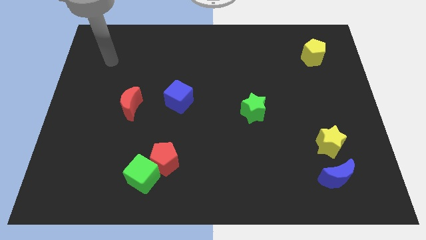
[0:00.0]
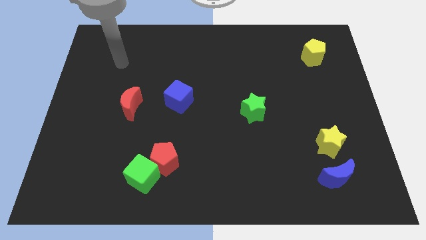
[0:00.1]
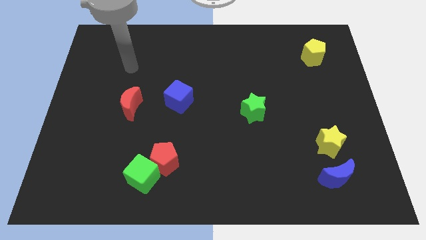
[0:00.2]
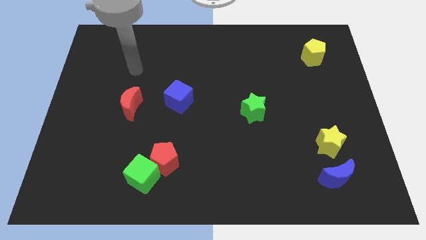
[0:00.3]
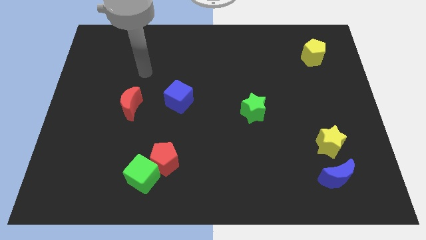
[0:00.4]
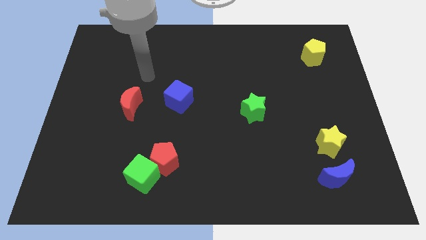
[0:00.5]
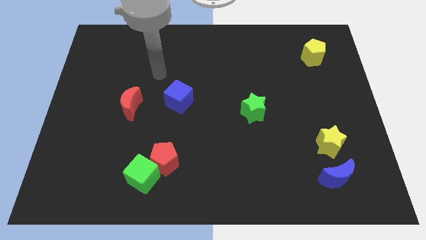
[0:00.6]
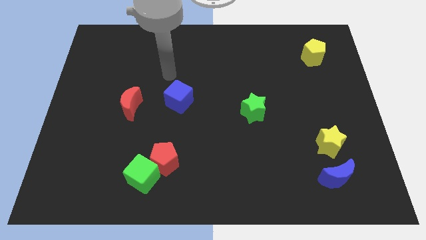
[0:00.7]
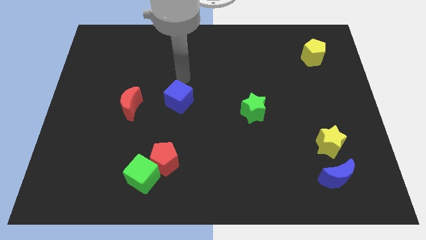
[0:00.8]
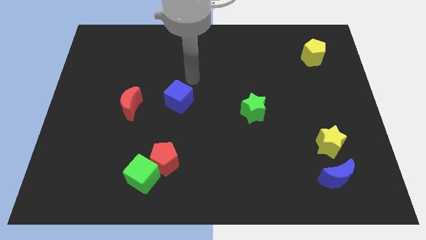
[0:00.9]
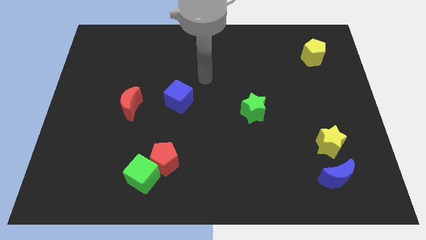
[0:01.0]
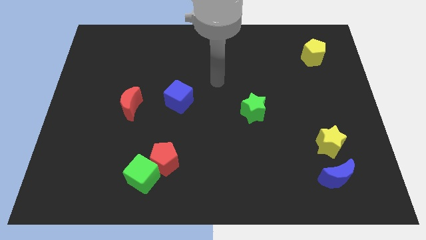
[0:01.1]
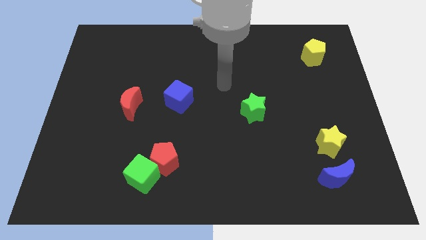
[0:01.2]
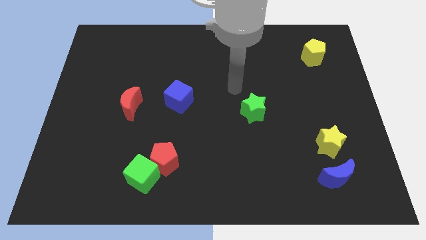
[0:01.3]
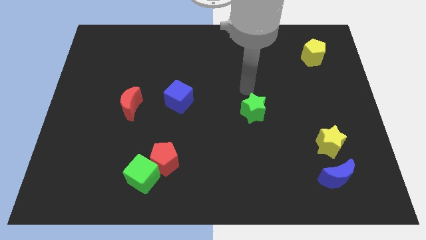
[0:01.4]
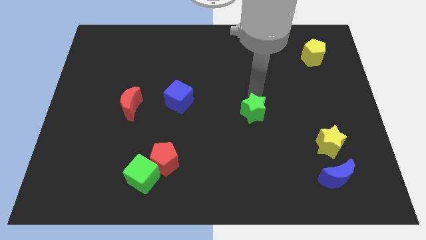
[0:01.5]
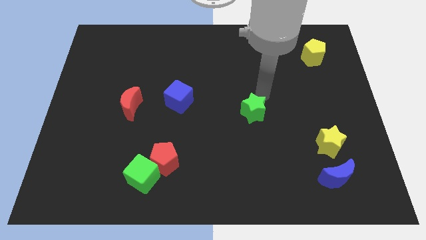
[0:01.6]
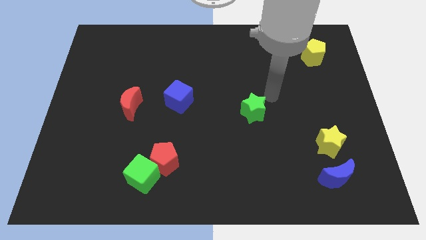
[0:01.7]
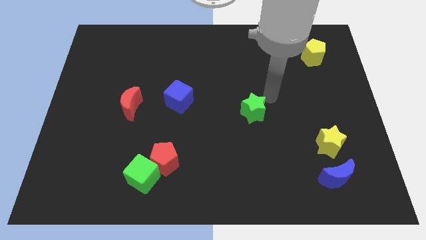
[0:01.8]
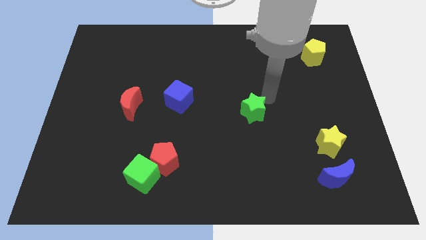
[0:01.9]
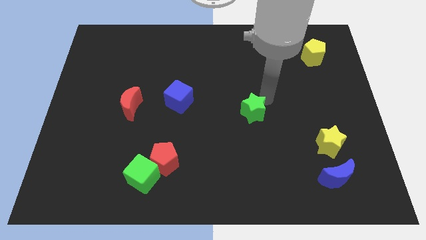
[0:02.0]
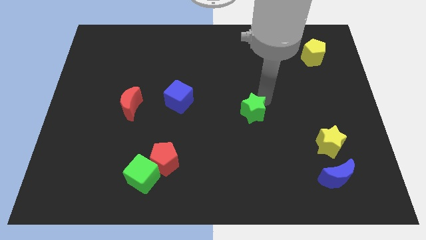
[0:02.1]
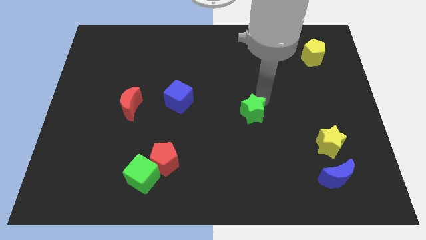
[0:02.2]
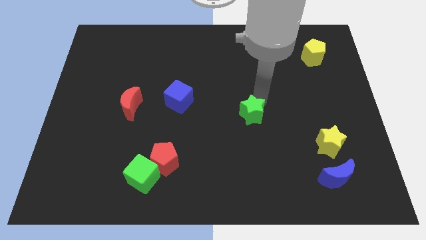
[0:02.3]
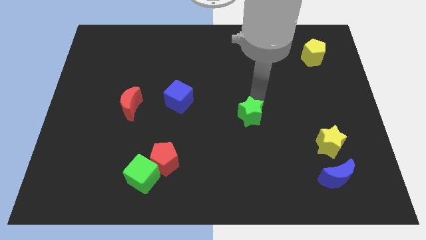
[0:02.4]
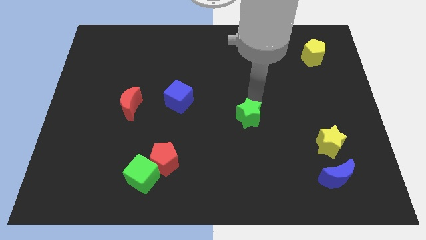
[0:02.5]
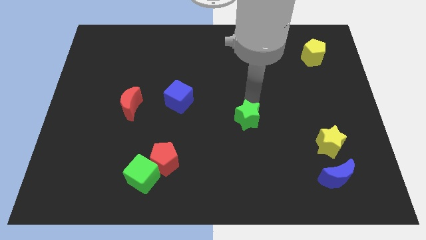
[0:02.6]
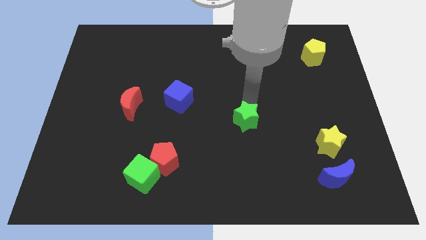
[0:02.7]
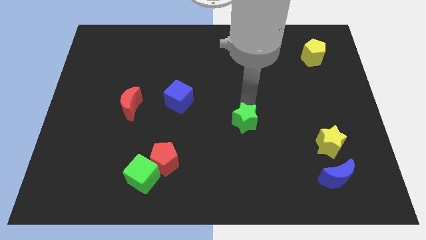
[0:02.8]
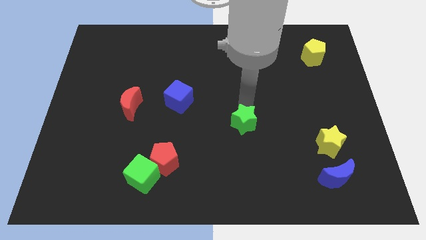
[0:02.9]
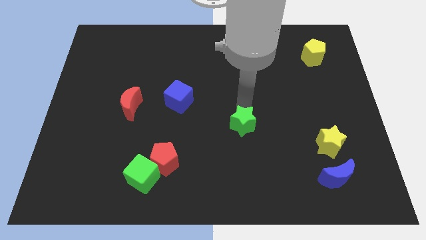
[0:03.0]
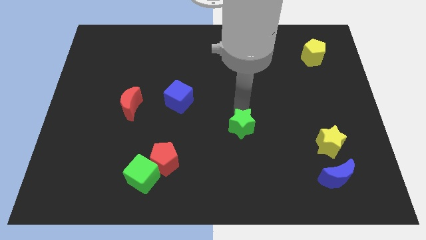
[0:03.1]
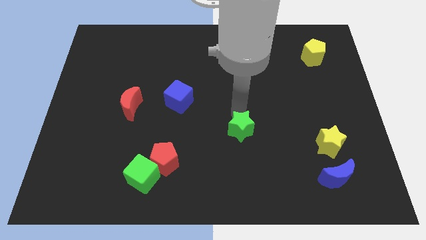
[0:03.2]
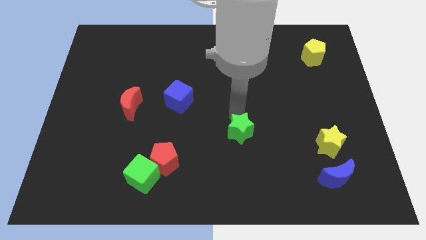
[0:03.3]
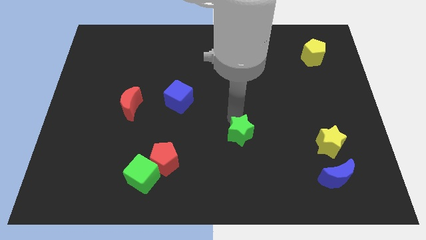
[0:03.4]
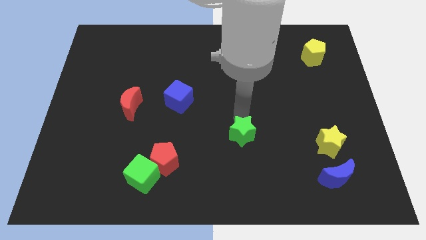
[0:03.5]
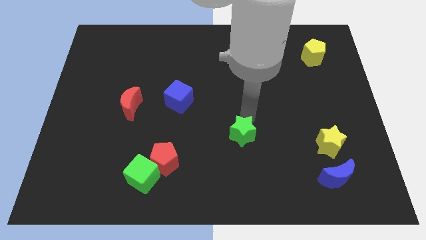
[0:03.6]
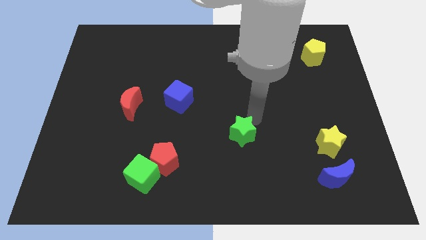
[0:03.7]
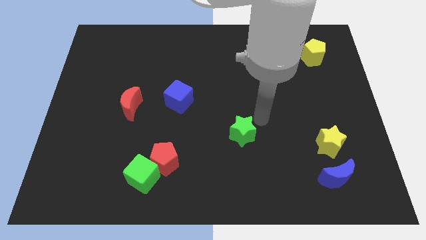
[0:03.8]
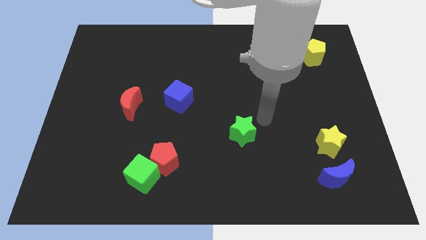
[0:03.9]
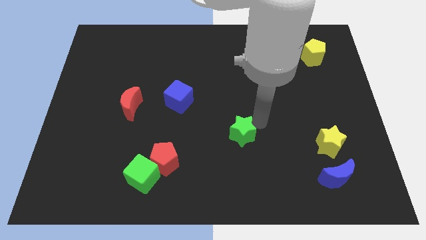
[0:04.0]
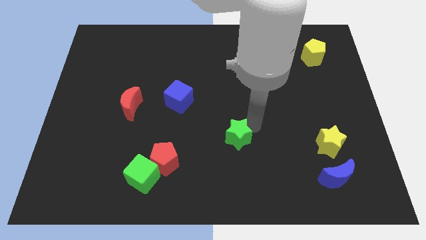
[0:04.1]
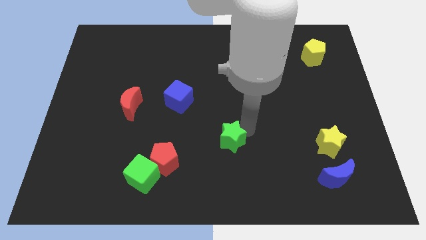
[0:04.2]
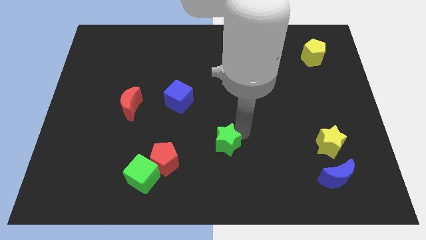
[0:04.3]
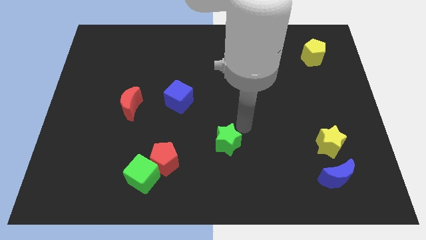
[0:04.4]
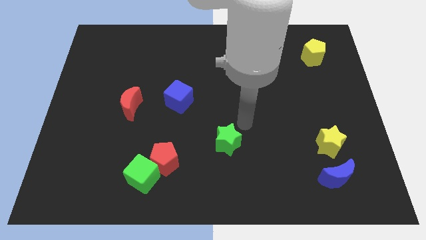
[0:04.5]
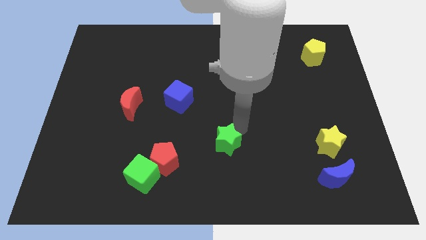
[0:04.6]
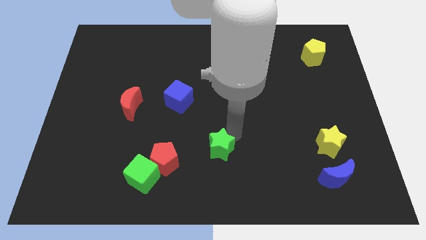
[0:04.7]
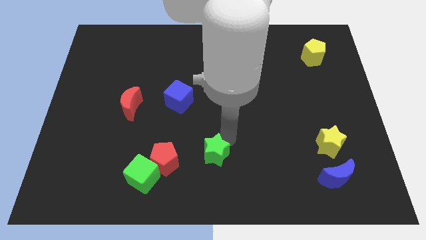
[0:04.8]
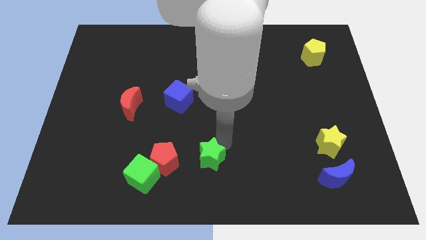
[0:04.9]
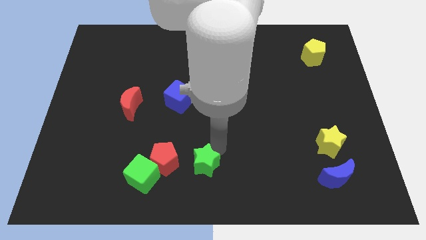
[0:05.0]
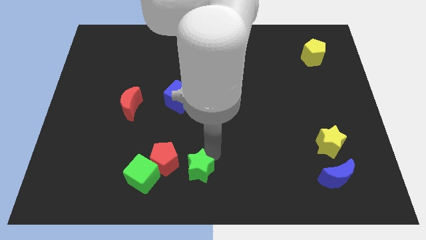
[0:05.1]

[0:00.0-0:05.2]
slide the green star diagonally down and to the right of the red pentagon

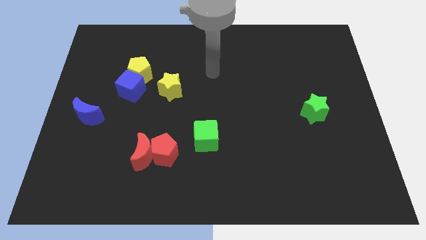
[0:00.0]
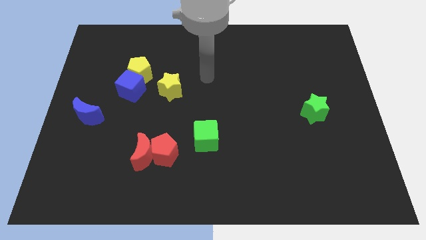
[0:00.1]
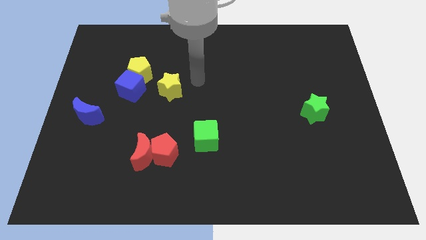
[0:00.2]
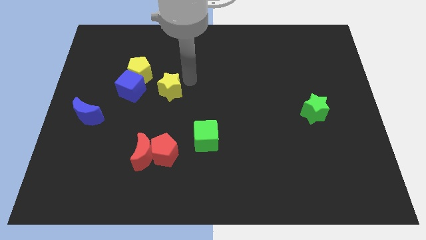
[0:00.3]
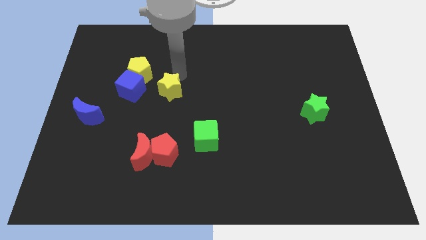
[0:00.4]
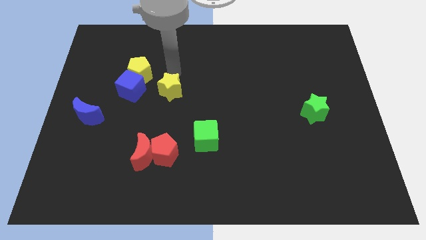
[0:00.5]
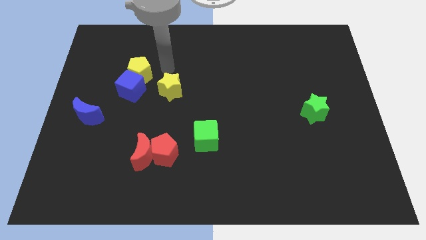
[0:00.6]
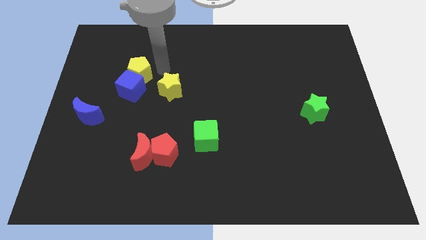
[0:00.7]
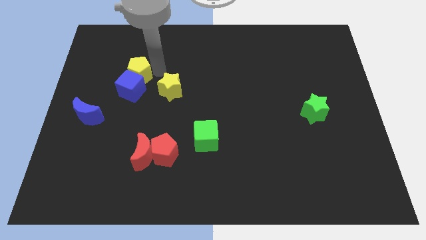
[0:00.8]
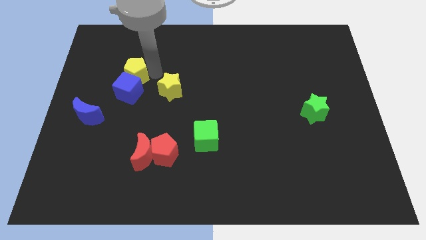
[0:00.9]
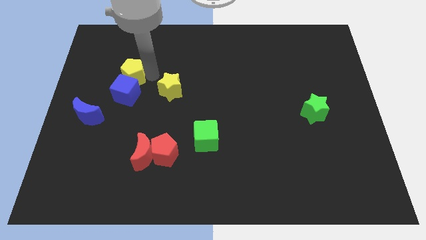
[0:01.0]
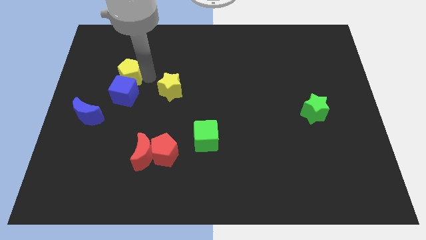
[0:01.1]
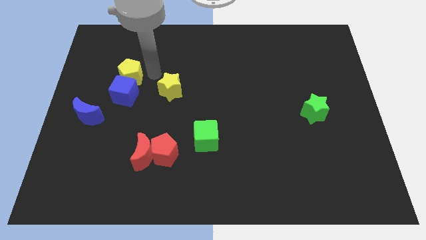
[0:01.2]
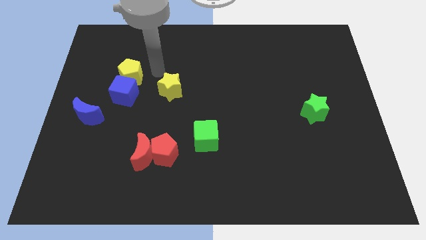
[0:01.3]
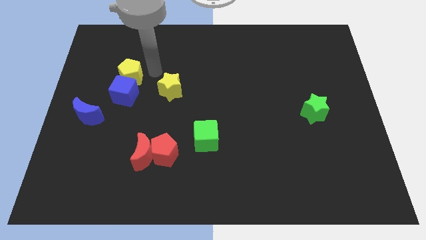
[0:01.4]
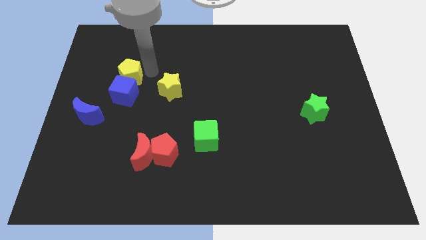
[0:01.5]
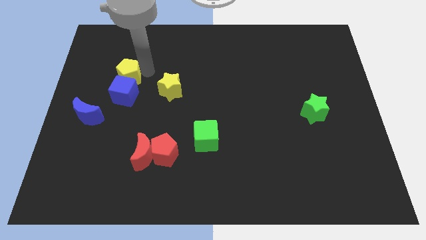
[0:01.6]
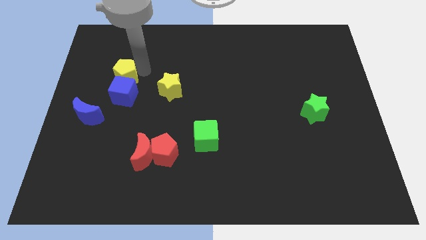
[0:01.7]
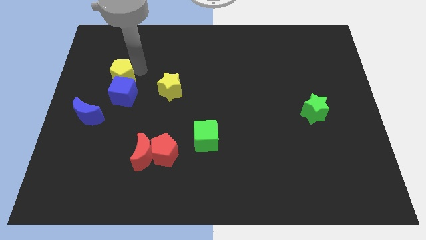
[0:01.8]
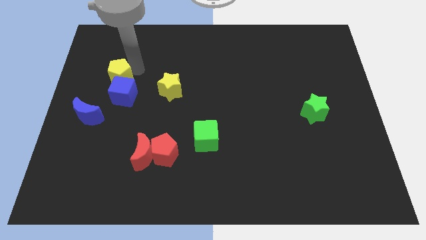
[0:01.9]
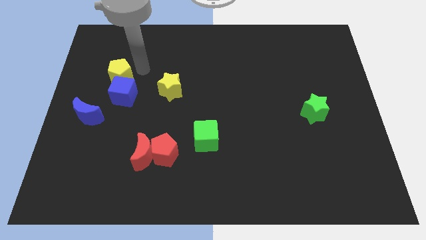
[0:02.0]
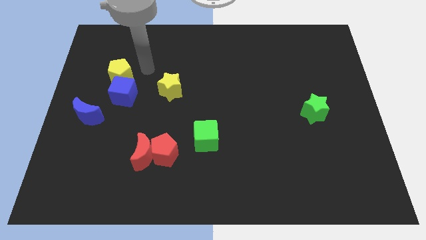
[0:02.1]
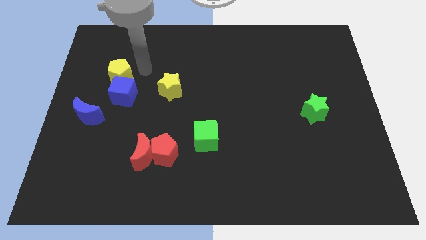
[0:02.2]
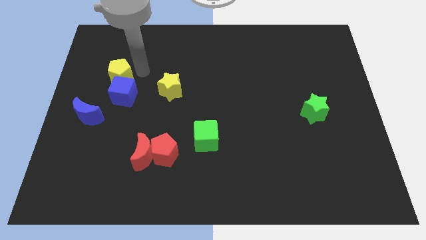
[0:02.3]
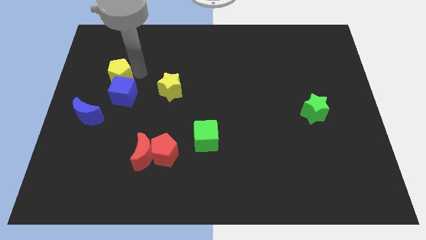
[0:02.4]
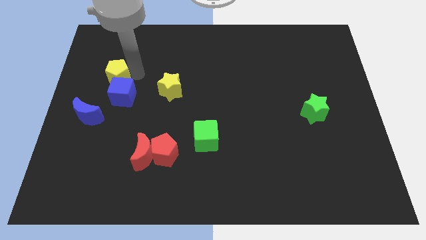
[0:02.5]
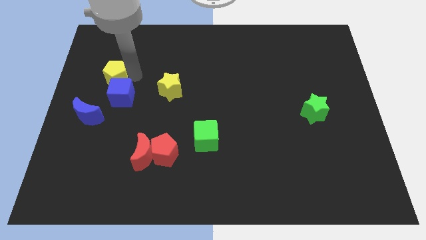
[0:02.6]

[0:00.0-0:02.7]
push the yellow pentagon to the top of the blue moon
